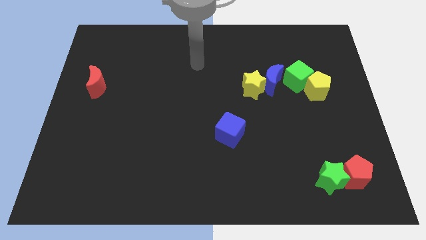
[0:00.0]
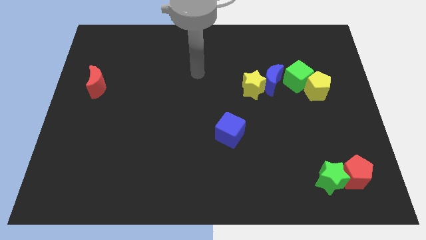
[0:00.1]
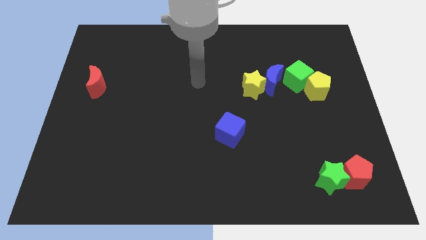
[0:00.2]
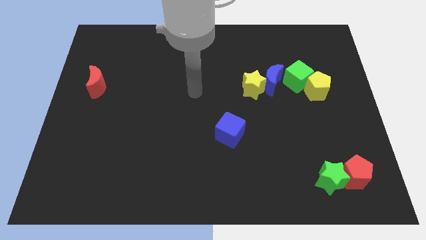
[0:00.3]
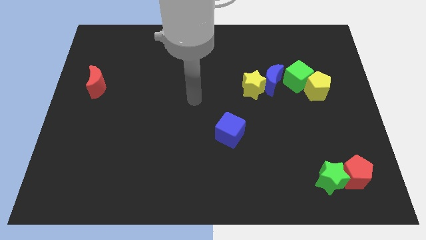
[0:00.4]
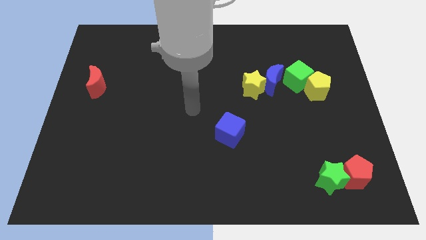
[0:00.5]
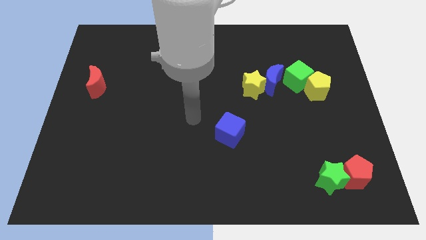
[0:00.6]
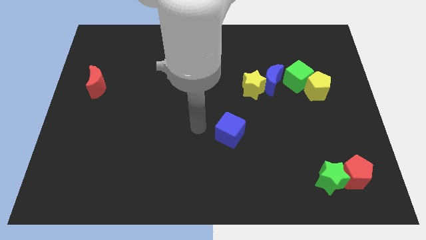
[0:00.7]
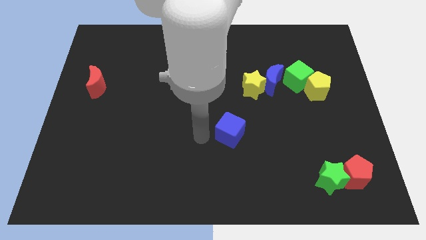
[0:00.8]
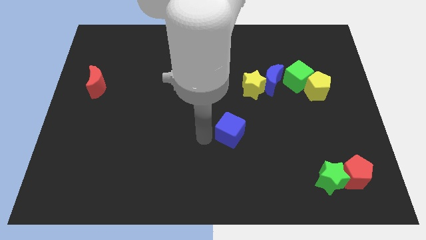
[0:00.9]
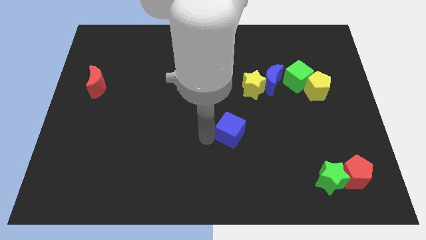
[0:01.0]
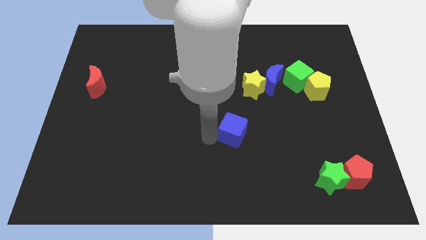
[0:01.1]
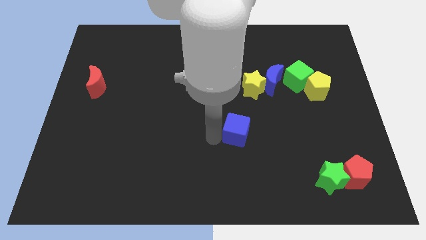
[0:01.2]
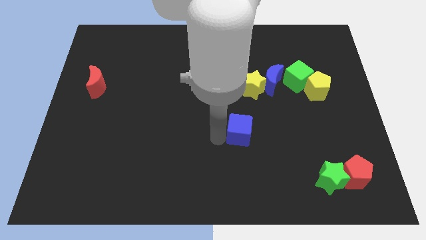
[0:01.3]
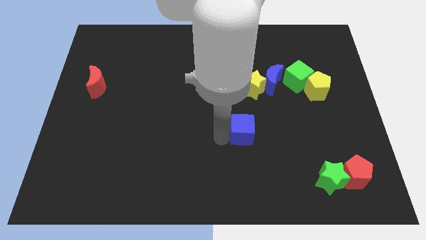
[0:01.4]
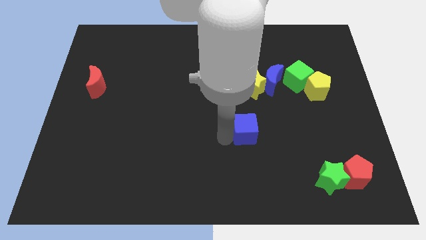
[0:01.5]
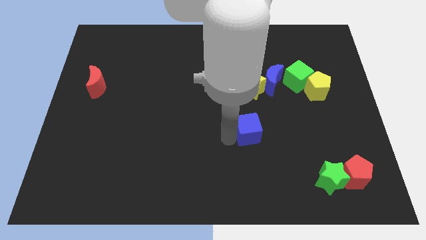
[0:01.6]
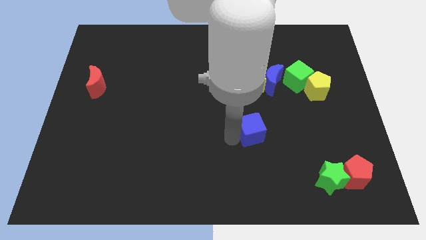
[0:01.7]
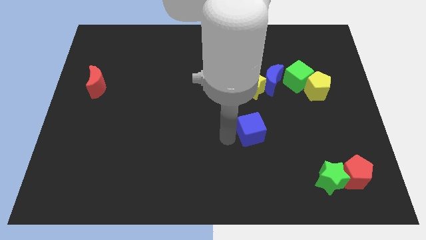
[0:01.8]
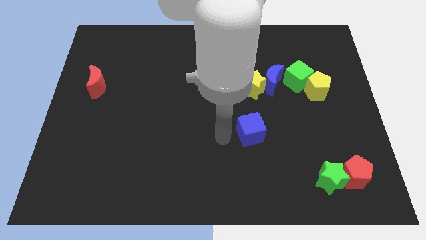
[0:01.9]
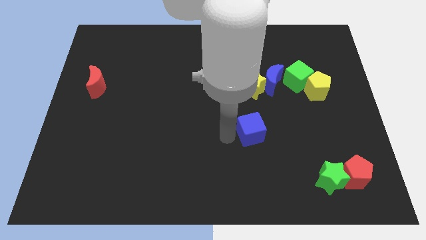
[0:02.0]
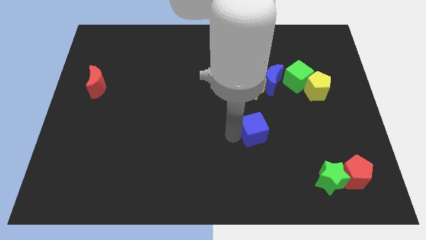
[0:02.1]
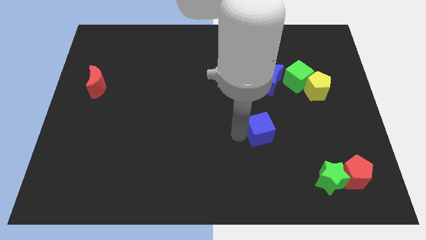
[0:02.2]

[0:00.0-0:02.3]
slightly slide the blue cube right

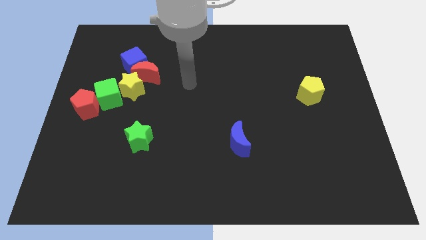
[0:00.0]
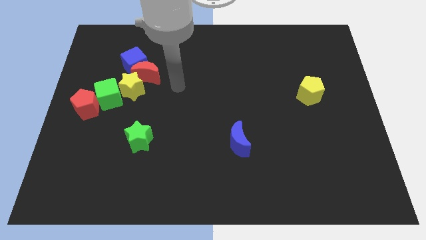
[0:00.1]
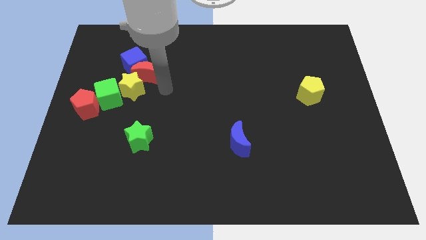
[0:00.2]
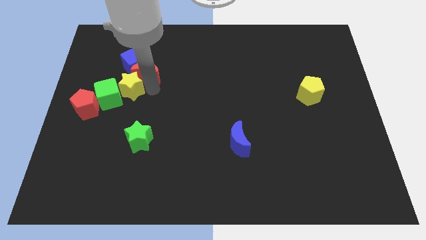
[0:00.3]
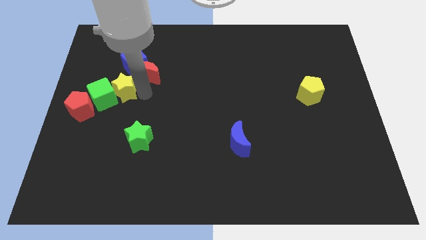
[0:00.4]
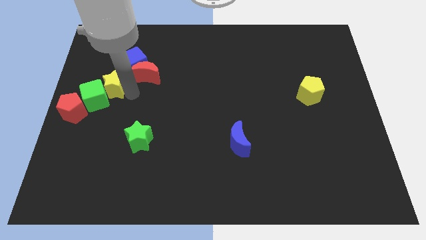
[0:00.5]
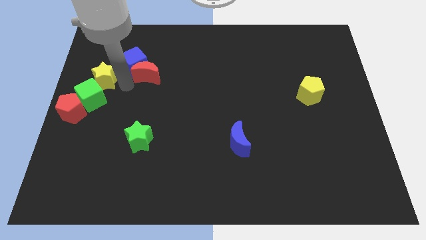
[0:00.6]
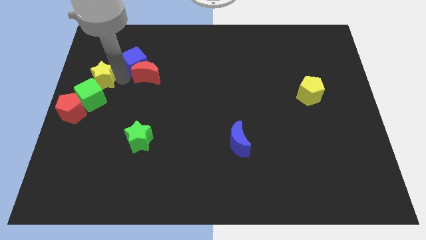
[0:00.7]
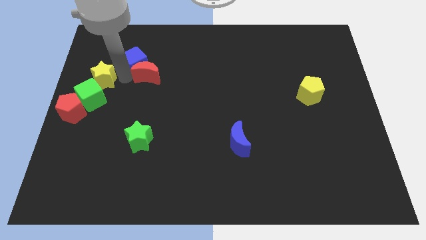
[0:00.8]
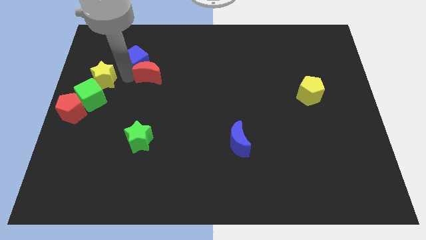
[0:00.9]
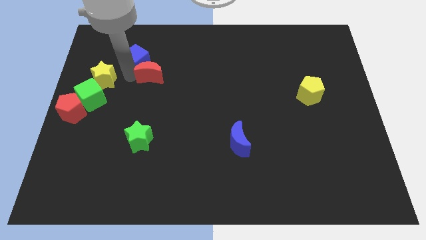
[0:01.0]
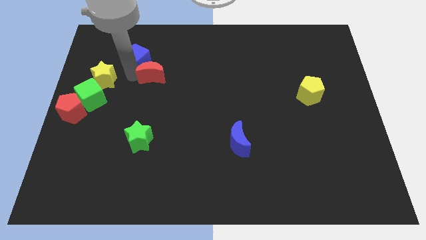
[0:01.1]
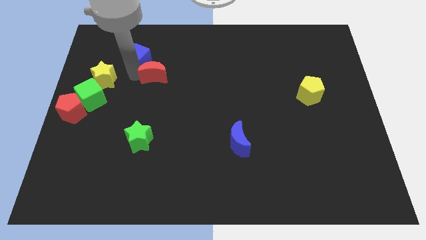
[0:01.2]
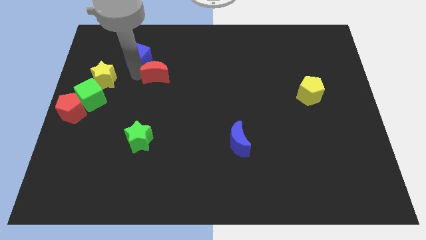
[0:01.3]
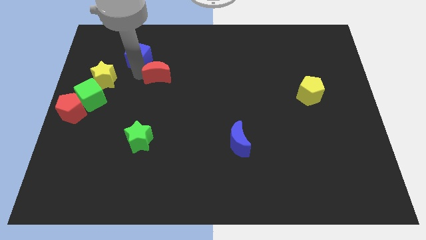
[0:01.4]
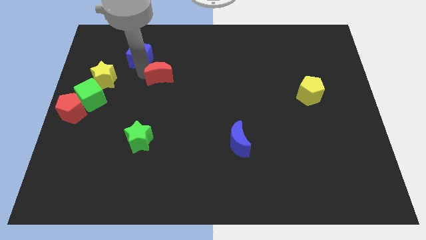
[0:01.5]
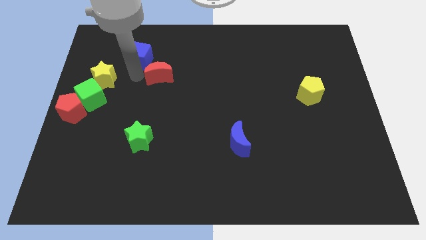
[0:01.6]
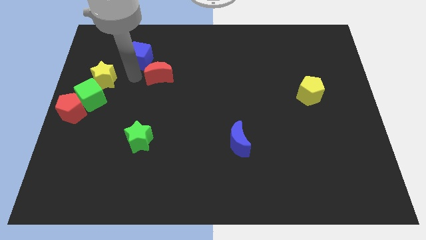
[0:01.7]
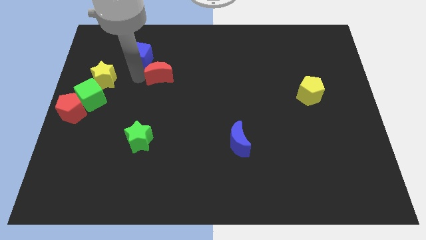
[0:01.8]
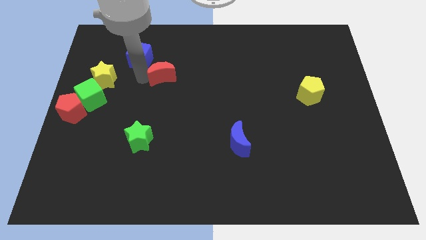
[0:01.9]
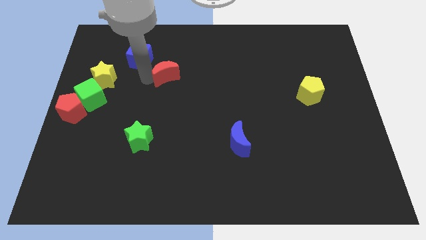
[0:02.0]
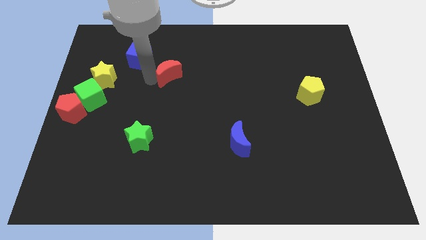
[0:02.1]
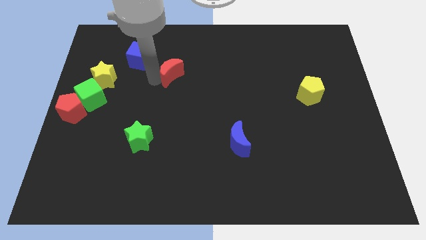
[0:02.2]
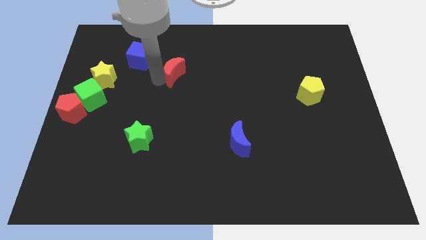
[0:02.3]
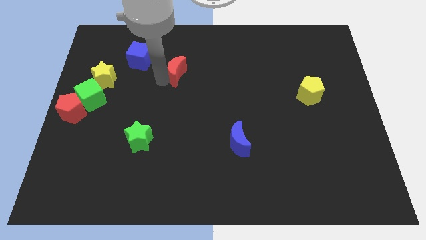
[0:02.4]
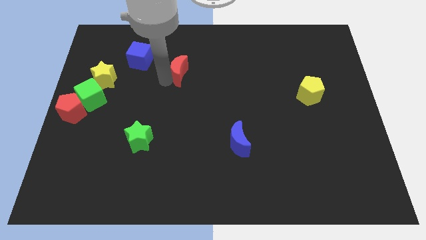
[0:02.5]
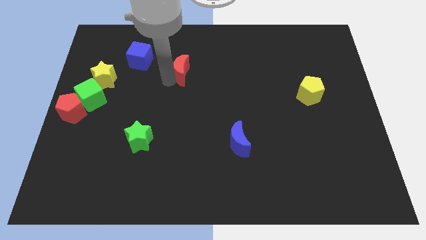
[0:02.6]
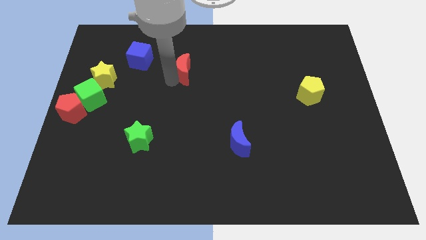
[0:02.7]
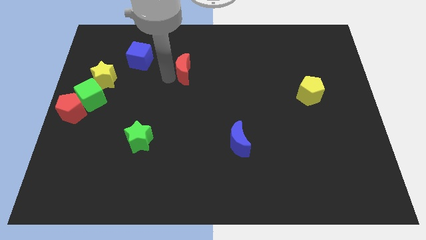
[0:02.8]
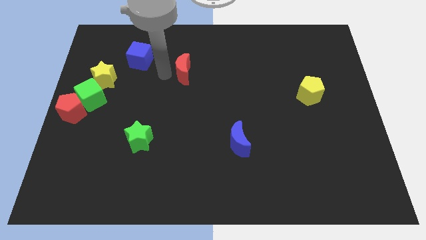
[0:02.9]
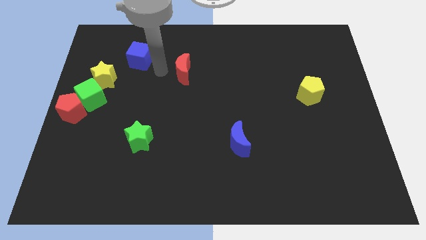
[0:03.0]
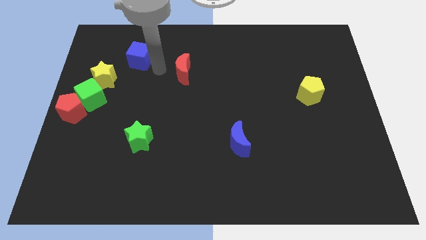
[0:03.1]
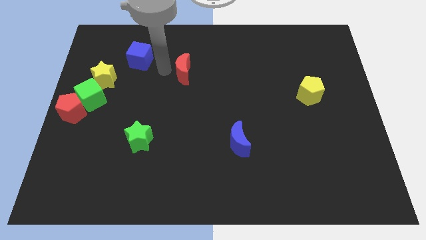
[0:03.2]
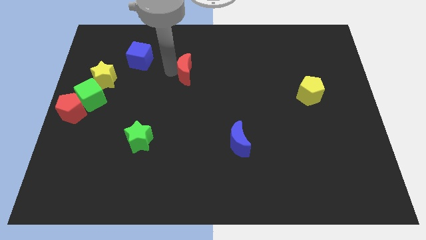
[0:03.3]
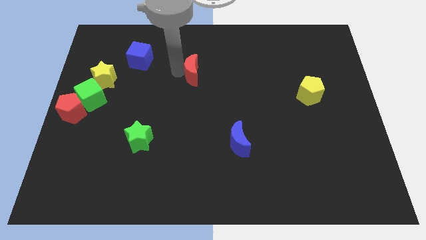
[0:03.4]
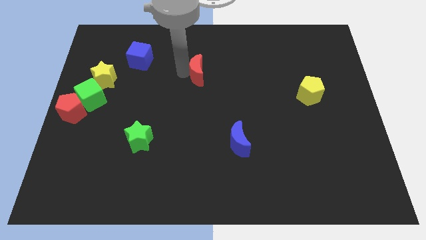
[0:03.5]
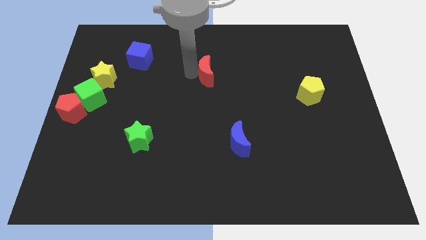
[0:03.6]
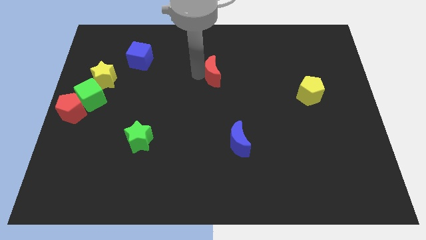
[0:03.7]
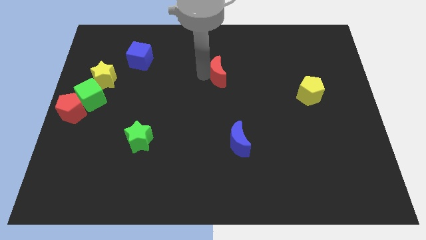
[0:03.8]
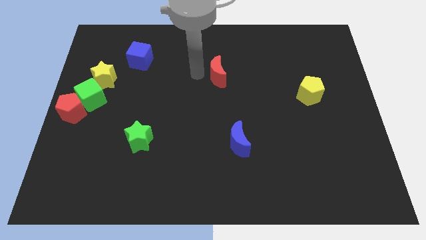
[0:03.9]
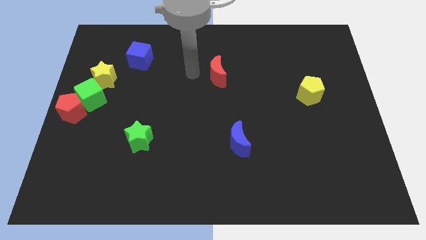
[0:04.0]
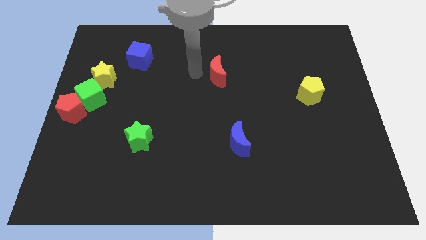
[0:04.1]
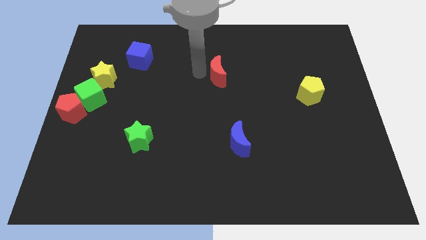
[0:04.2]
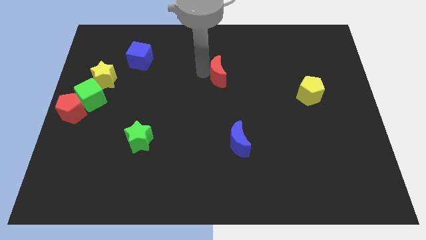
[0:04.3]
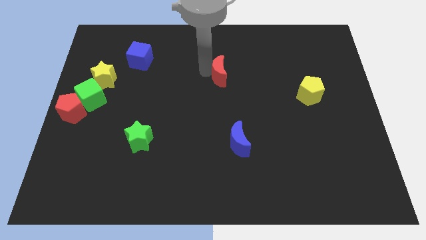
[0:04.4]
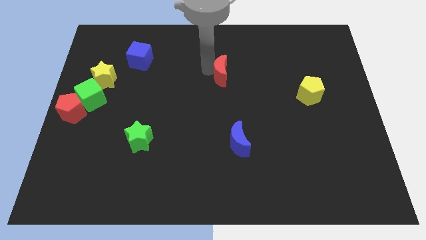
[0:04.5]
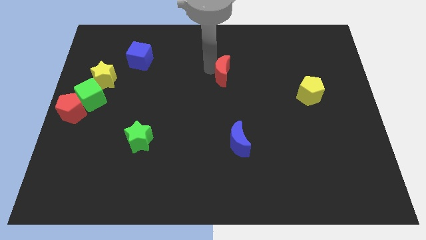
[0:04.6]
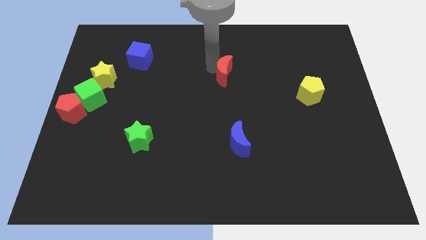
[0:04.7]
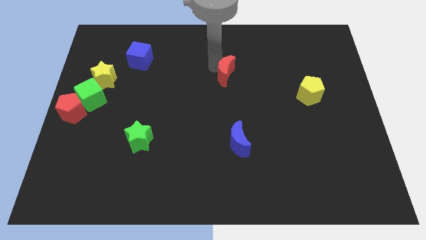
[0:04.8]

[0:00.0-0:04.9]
slide the red moon to the right

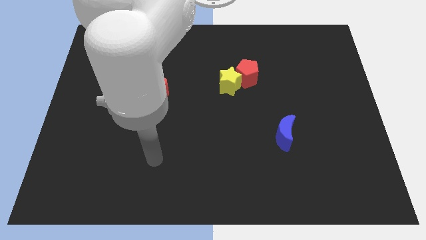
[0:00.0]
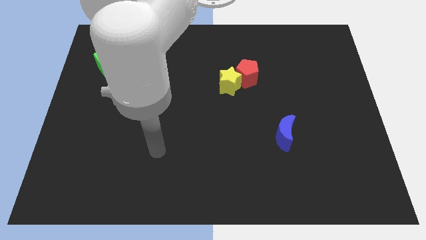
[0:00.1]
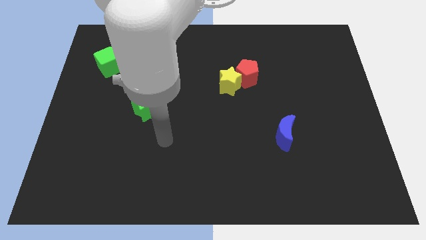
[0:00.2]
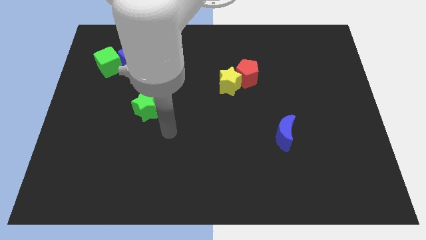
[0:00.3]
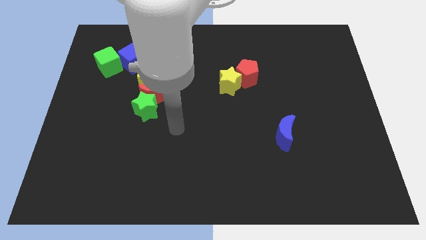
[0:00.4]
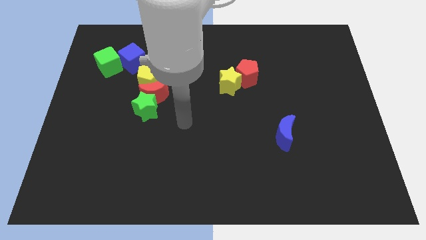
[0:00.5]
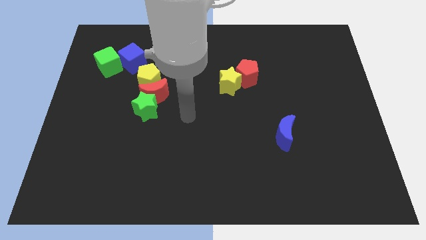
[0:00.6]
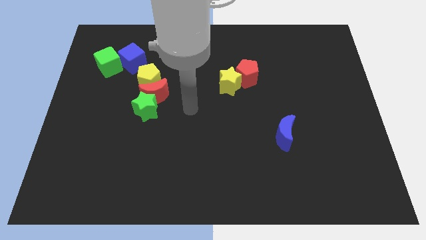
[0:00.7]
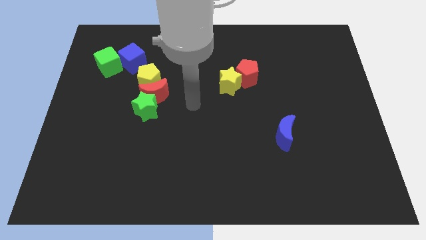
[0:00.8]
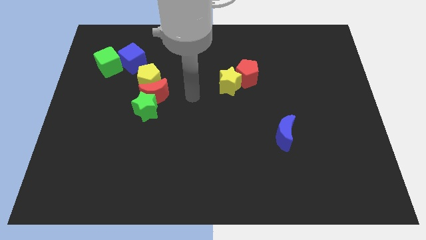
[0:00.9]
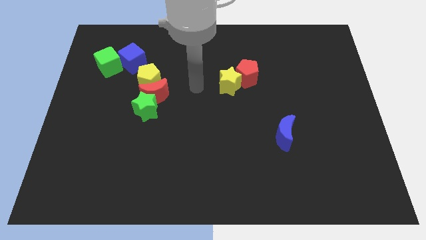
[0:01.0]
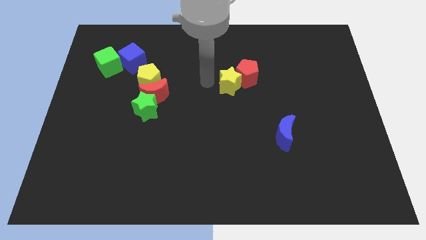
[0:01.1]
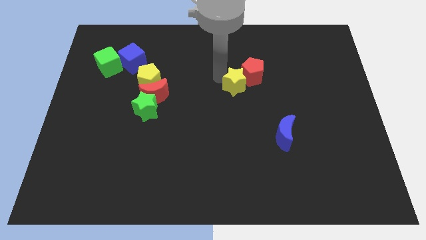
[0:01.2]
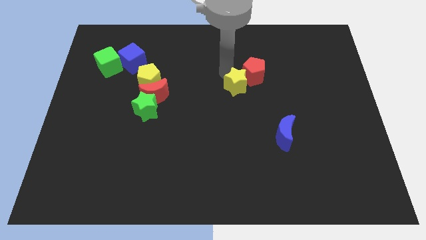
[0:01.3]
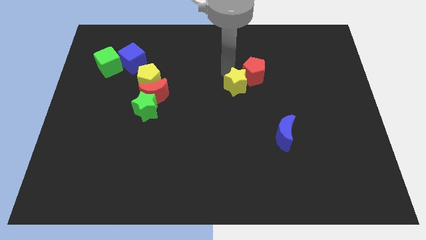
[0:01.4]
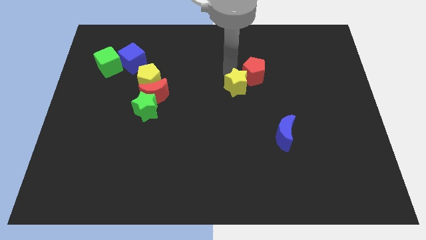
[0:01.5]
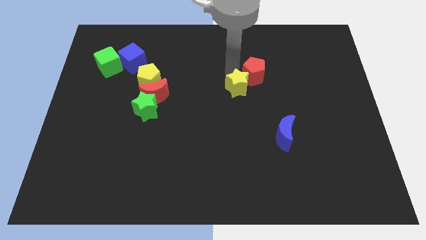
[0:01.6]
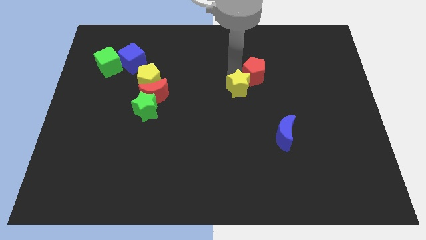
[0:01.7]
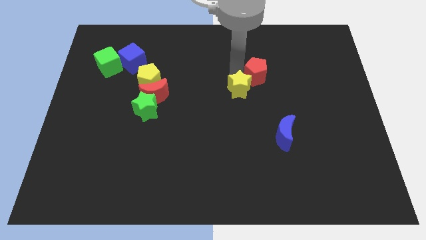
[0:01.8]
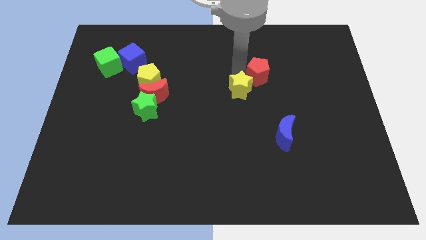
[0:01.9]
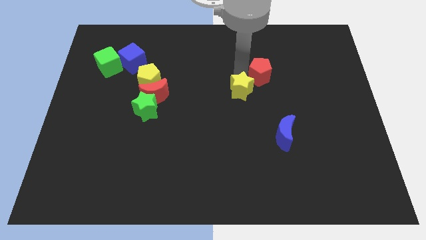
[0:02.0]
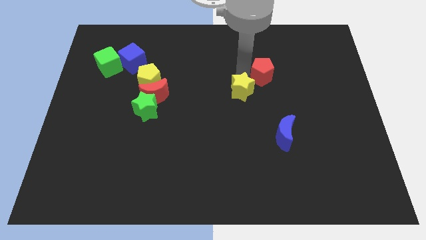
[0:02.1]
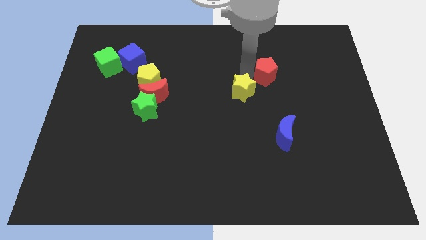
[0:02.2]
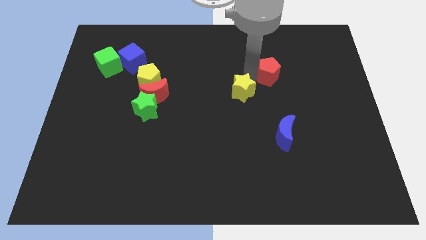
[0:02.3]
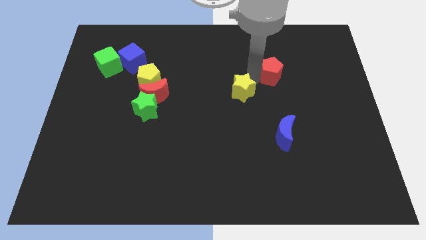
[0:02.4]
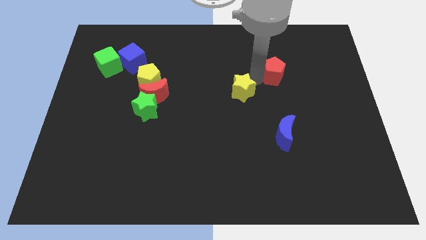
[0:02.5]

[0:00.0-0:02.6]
move the red pentagon right slightly
